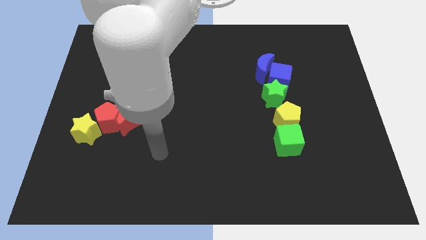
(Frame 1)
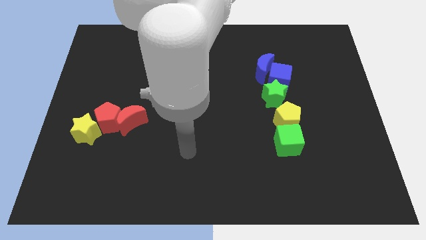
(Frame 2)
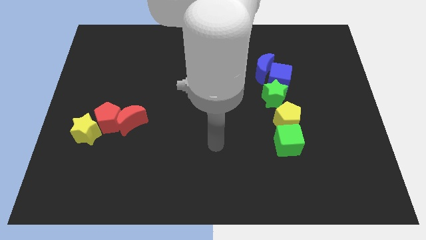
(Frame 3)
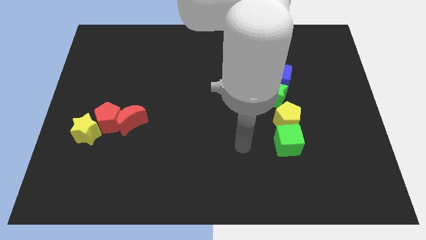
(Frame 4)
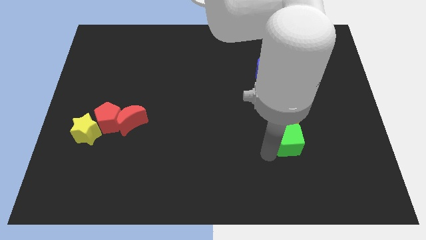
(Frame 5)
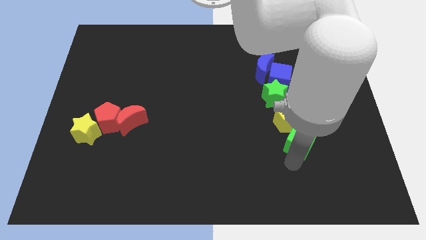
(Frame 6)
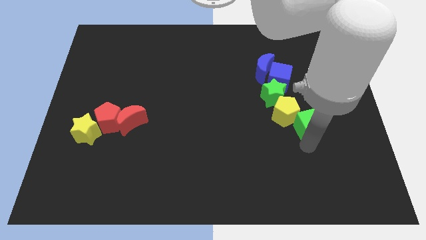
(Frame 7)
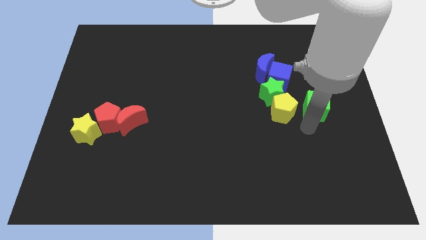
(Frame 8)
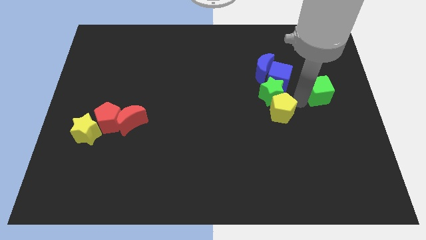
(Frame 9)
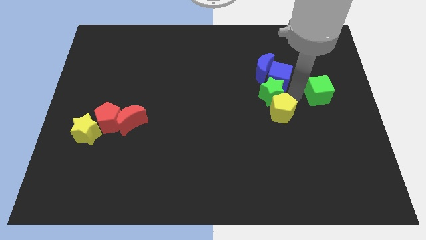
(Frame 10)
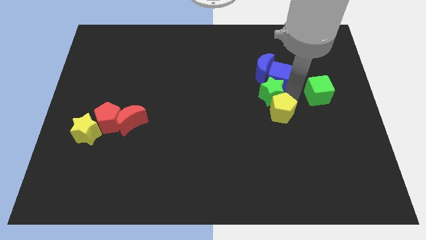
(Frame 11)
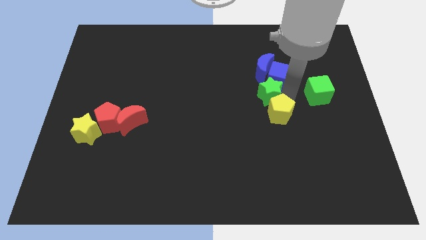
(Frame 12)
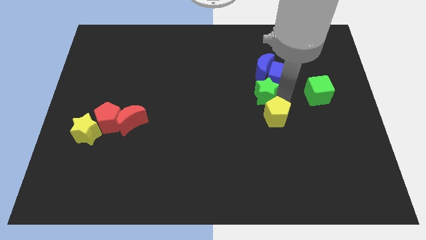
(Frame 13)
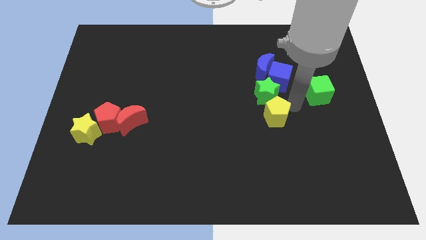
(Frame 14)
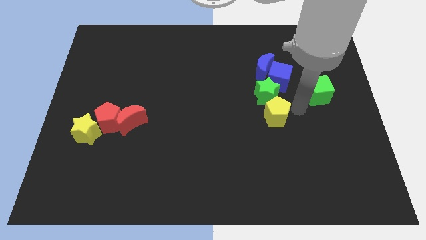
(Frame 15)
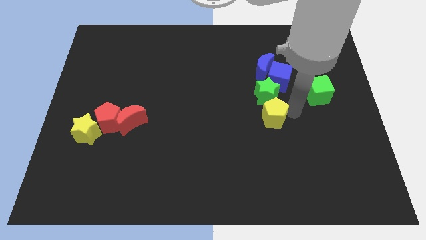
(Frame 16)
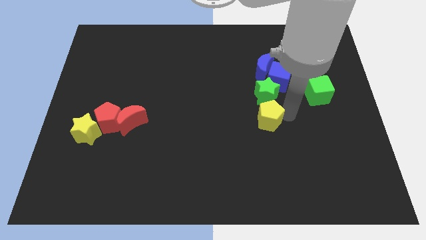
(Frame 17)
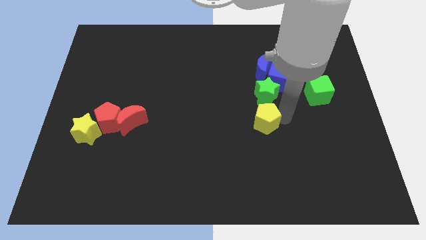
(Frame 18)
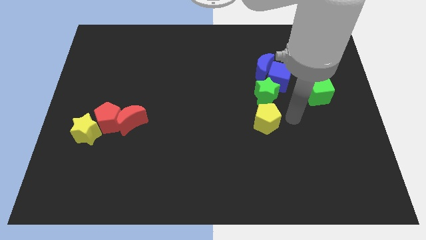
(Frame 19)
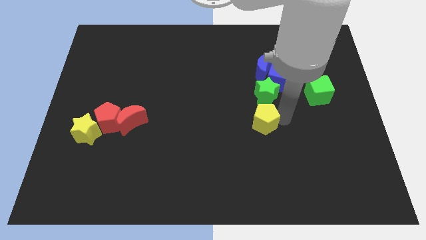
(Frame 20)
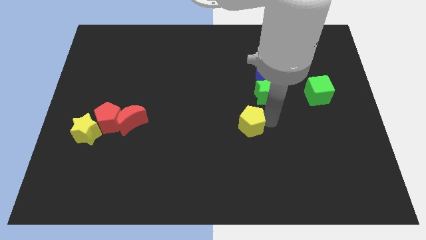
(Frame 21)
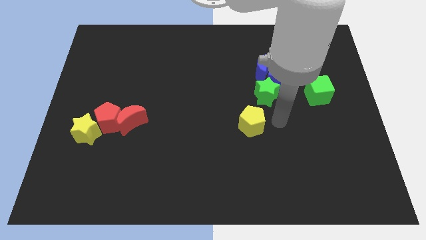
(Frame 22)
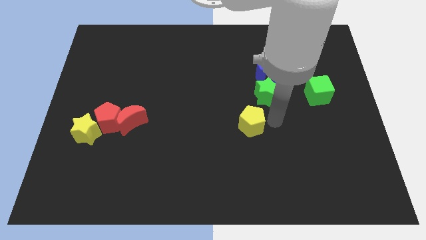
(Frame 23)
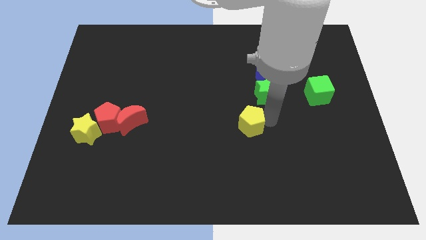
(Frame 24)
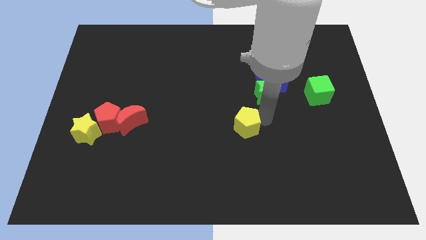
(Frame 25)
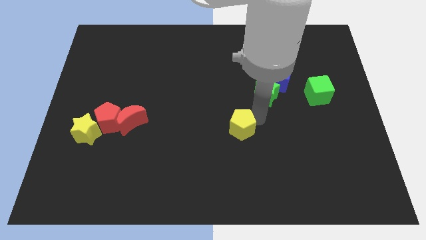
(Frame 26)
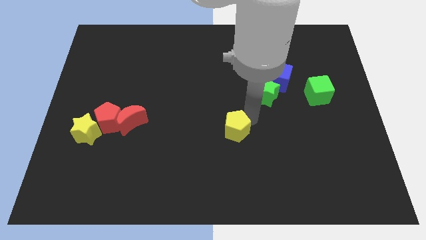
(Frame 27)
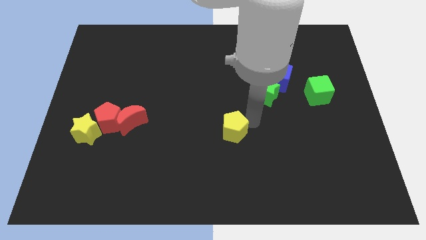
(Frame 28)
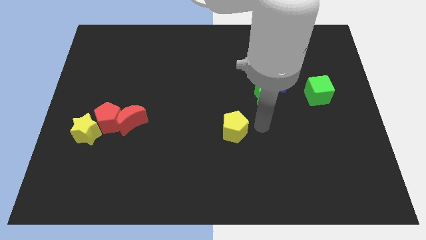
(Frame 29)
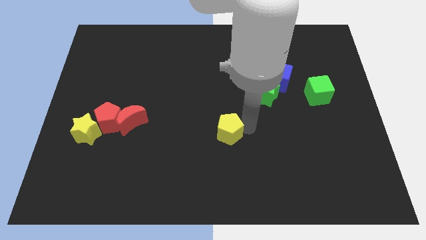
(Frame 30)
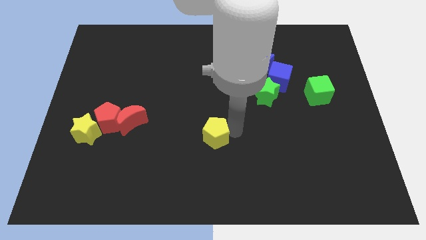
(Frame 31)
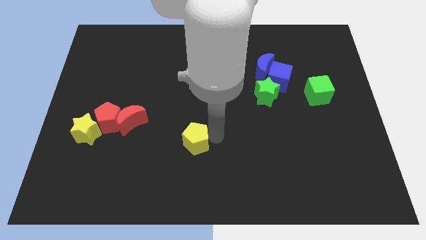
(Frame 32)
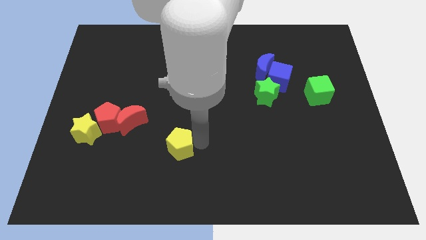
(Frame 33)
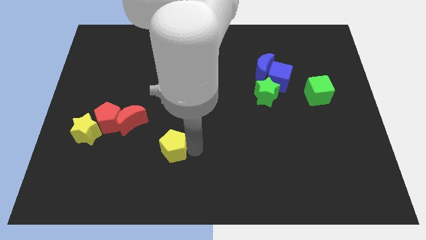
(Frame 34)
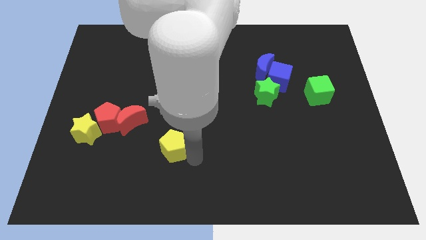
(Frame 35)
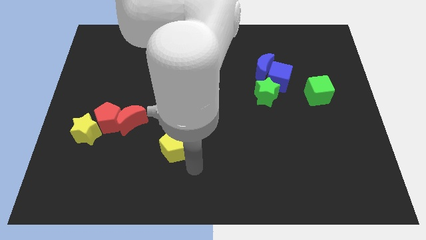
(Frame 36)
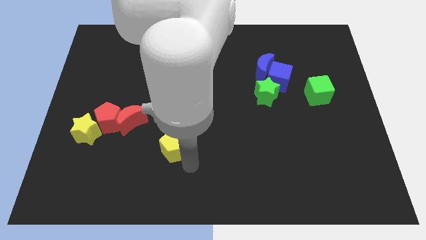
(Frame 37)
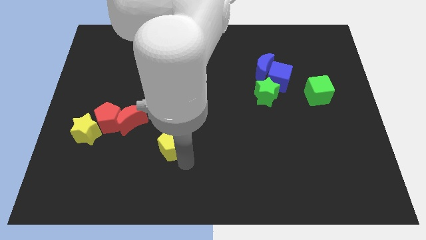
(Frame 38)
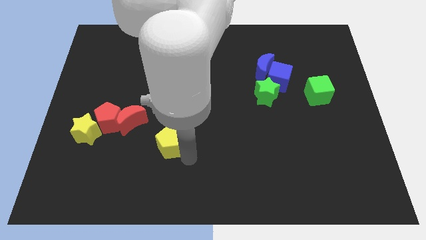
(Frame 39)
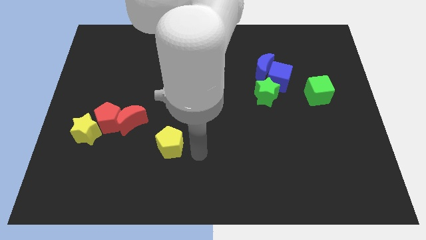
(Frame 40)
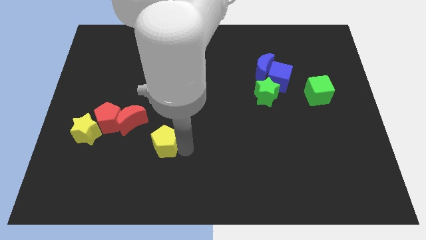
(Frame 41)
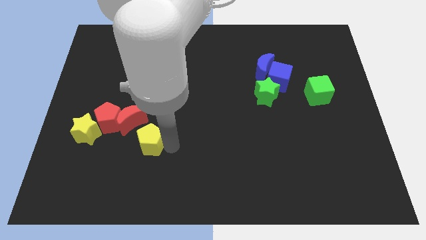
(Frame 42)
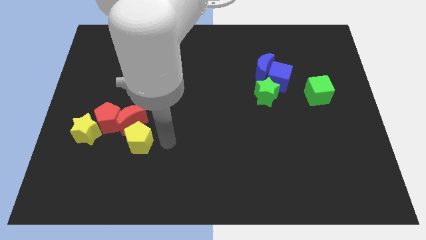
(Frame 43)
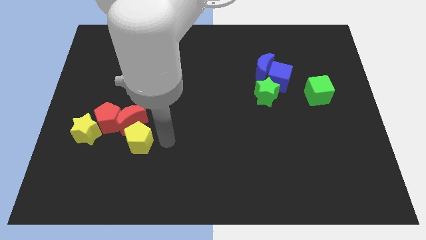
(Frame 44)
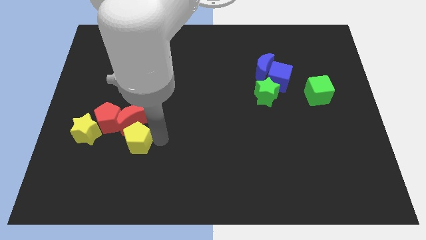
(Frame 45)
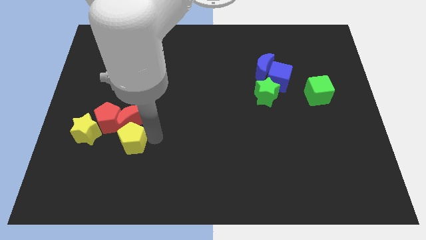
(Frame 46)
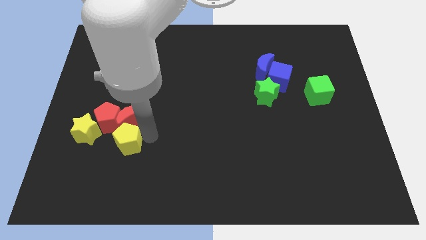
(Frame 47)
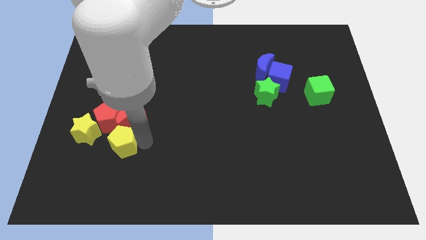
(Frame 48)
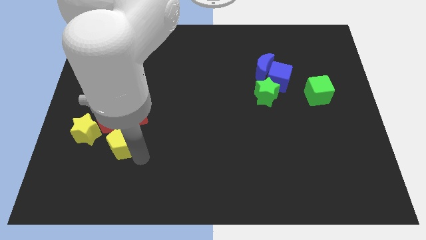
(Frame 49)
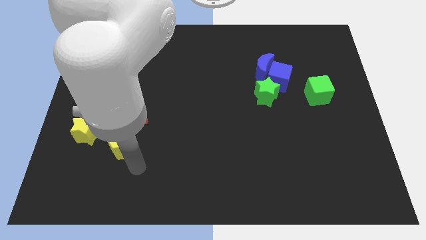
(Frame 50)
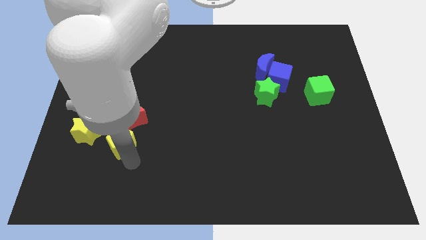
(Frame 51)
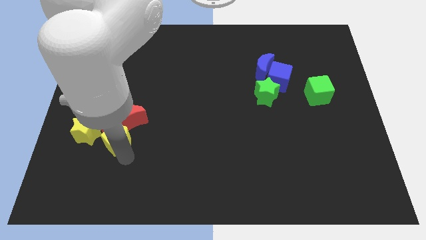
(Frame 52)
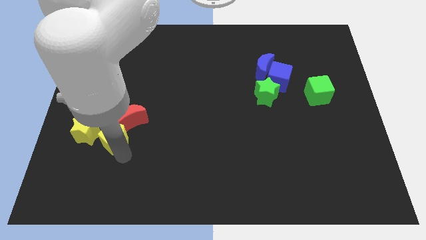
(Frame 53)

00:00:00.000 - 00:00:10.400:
move the yellow pentagon next to the red pentagon
